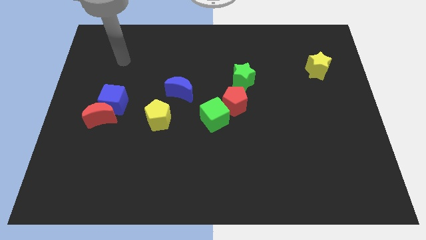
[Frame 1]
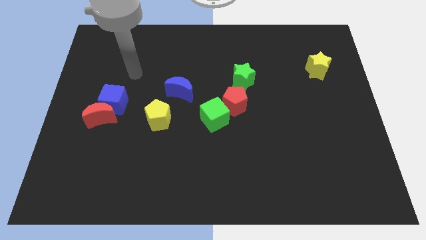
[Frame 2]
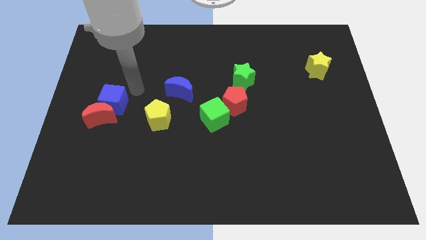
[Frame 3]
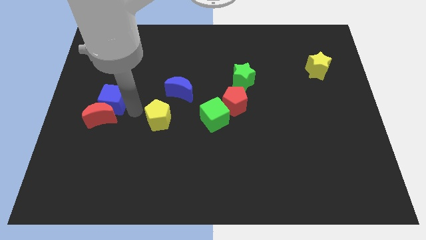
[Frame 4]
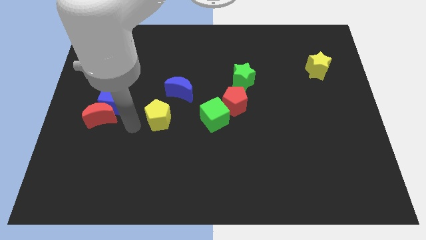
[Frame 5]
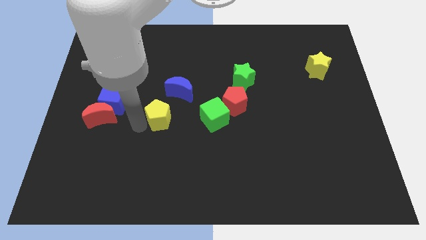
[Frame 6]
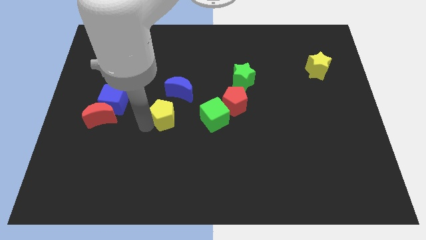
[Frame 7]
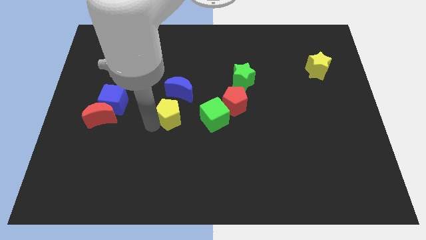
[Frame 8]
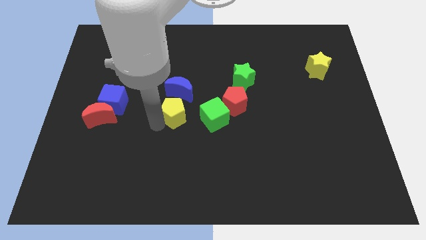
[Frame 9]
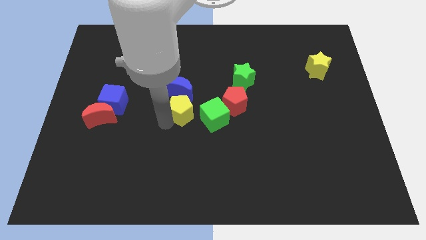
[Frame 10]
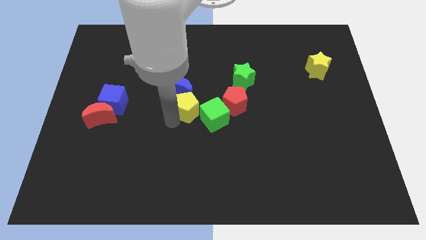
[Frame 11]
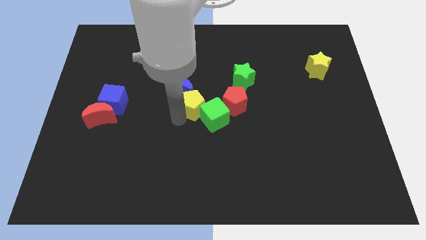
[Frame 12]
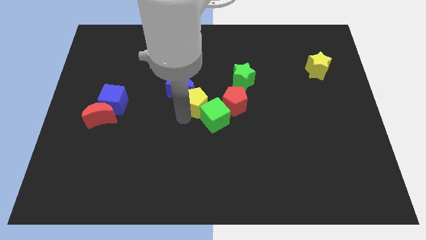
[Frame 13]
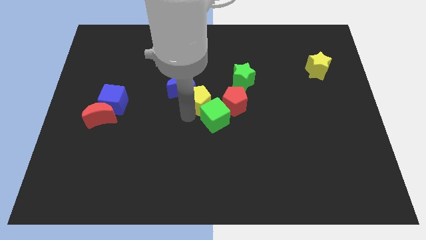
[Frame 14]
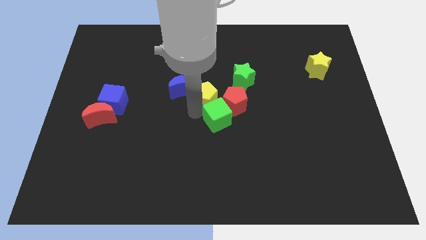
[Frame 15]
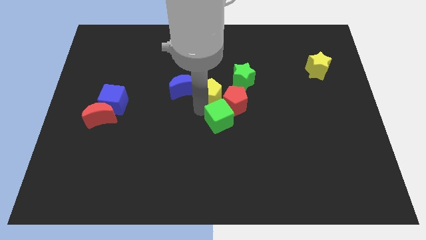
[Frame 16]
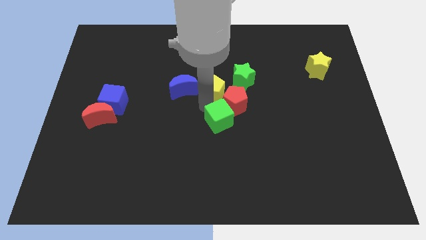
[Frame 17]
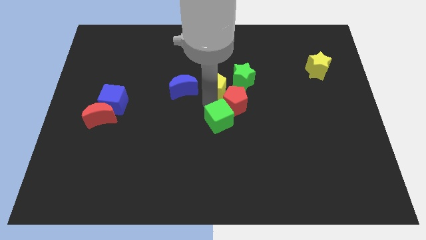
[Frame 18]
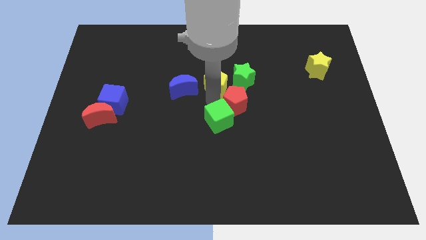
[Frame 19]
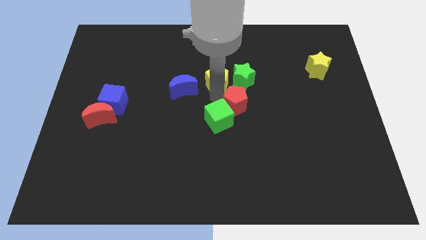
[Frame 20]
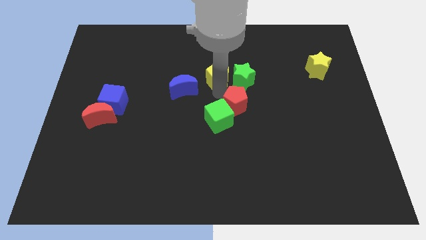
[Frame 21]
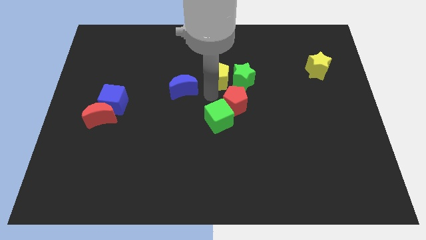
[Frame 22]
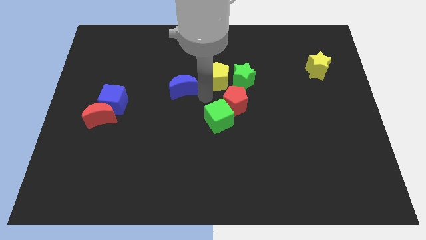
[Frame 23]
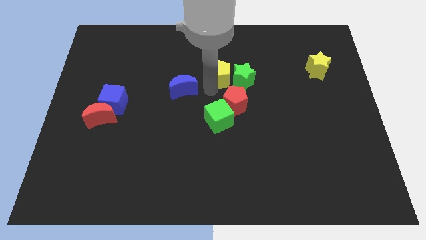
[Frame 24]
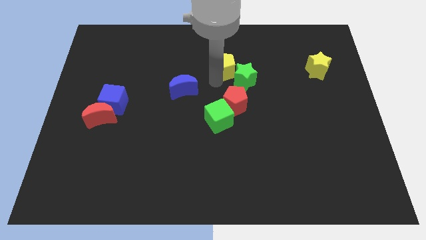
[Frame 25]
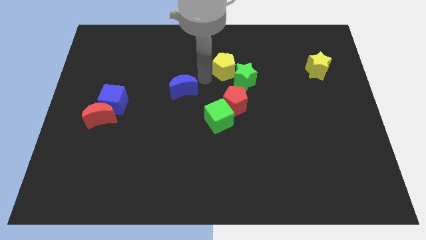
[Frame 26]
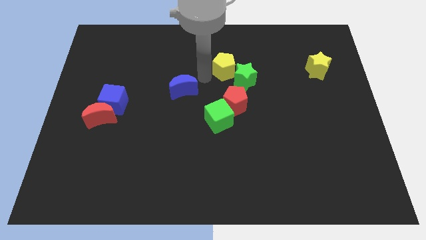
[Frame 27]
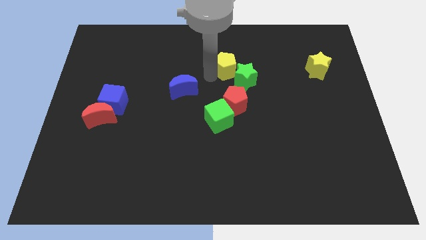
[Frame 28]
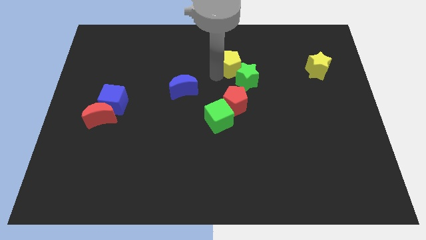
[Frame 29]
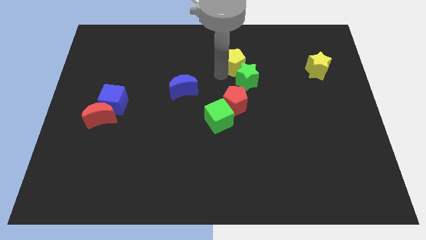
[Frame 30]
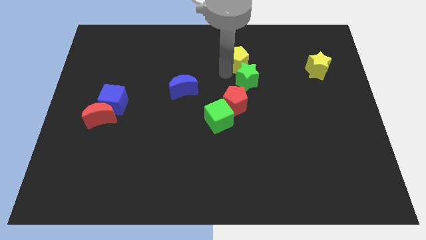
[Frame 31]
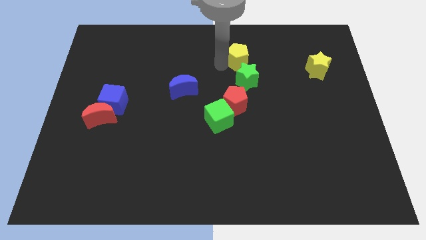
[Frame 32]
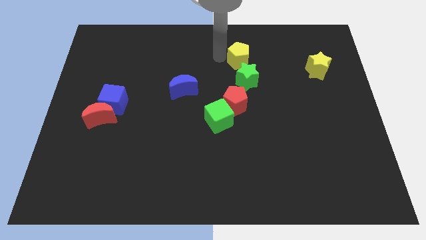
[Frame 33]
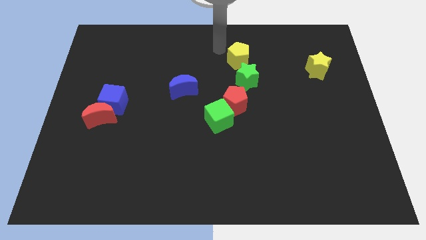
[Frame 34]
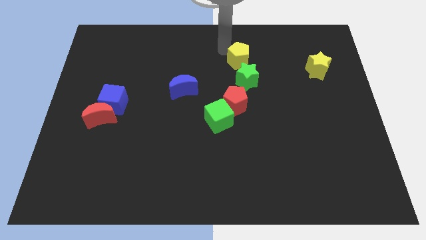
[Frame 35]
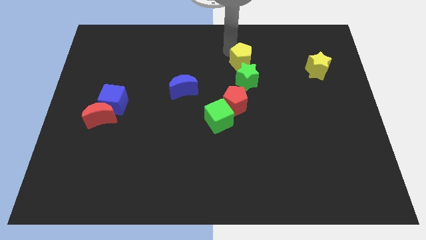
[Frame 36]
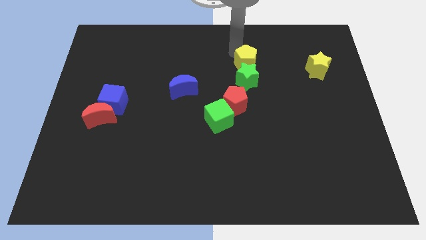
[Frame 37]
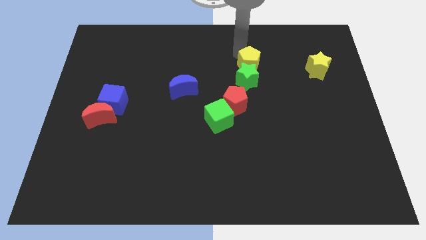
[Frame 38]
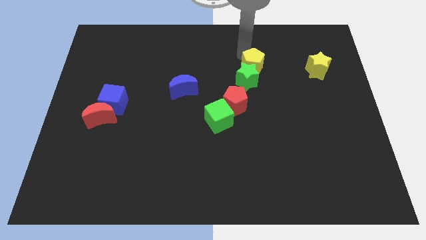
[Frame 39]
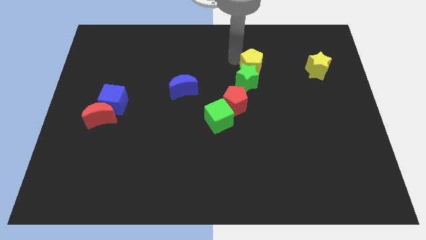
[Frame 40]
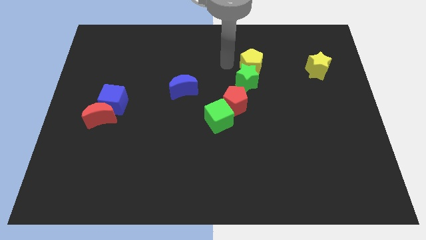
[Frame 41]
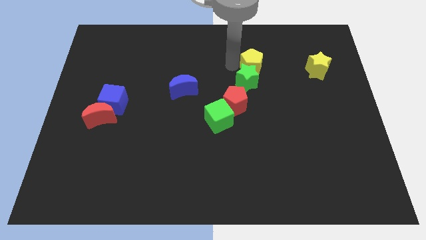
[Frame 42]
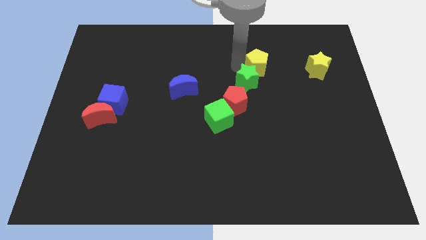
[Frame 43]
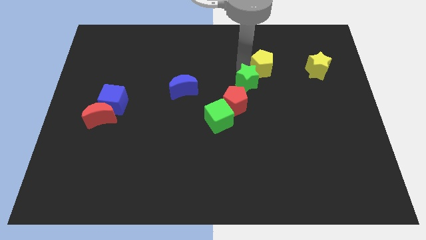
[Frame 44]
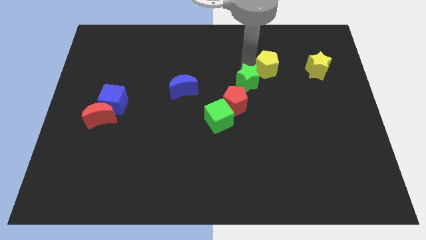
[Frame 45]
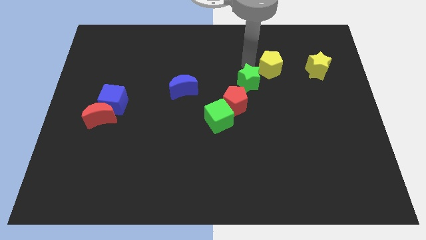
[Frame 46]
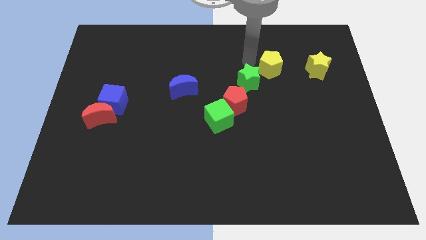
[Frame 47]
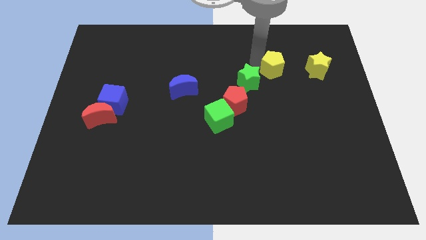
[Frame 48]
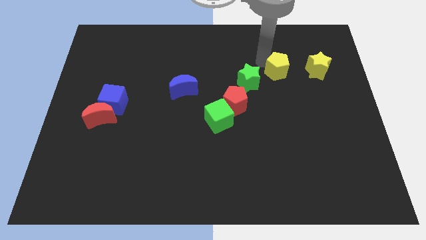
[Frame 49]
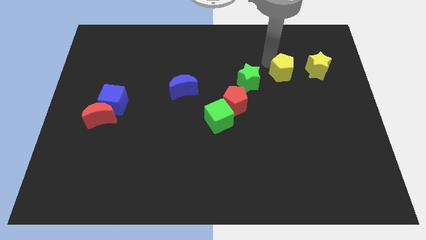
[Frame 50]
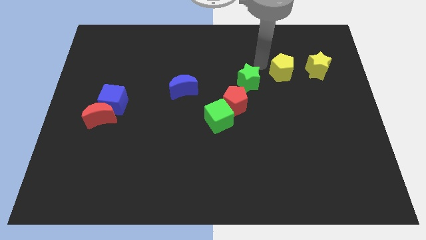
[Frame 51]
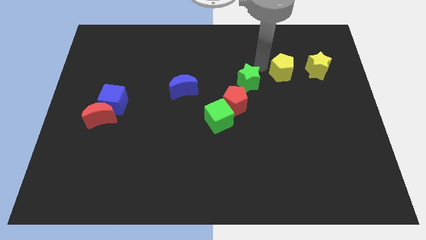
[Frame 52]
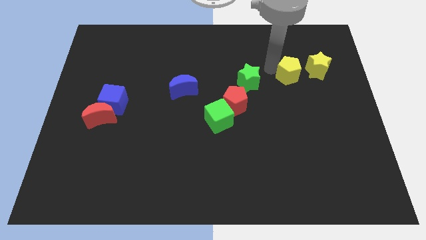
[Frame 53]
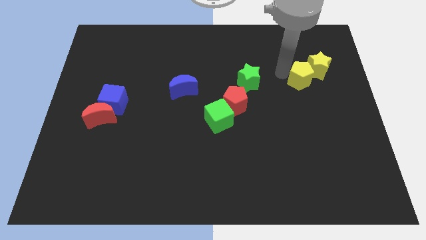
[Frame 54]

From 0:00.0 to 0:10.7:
move the yellow pentagon to the yellow star

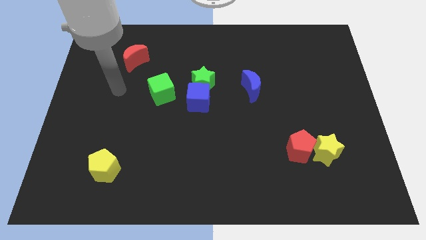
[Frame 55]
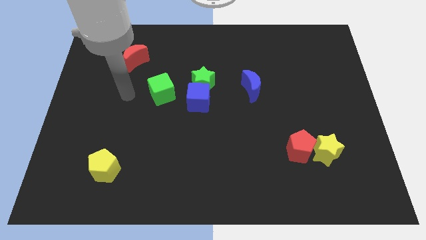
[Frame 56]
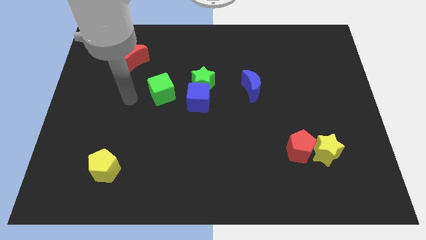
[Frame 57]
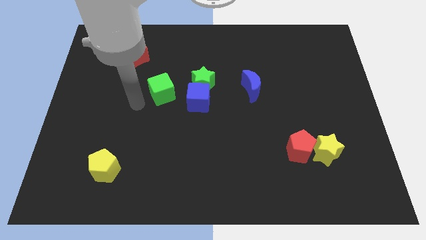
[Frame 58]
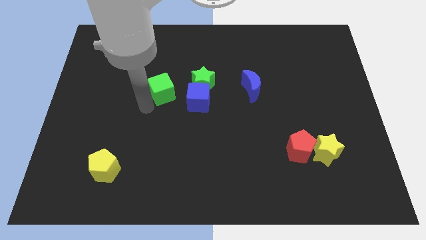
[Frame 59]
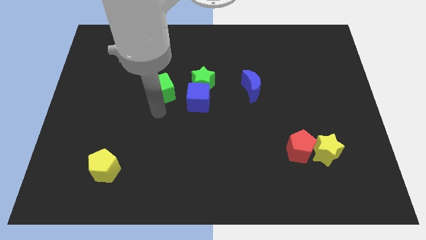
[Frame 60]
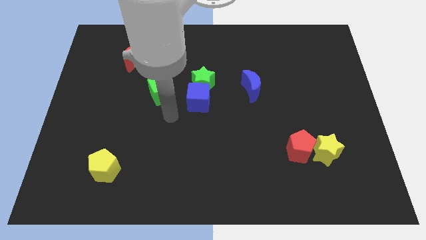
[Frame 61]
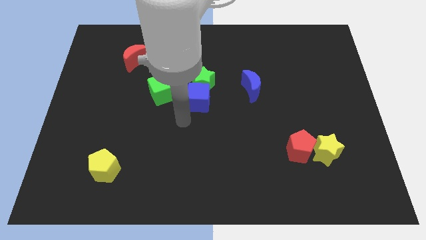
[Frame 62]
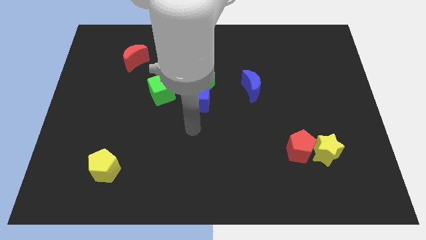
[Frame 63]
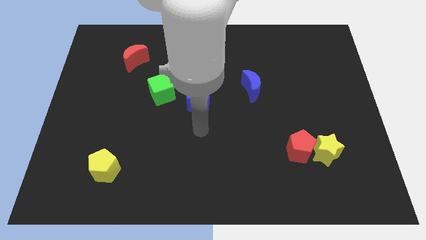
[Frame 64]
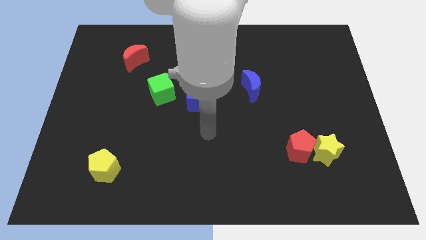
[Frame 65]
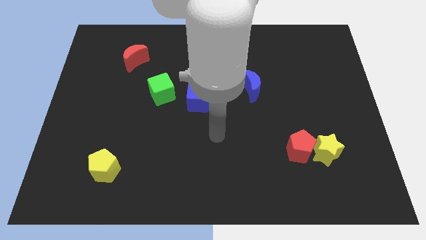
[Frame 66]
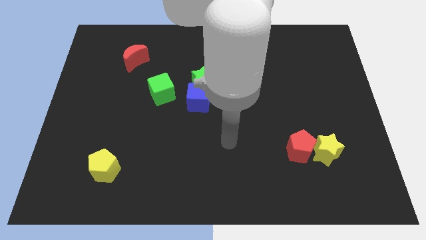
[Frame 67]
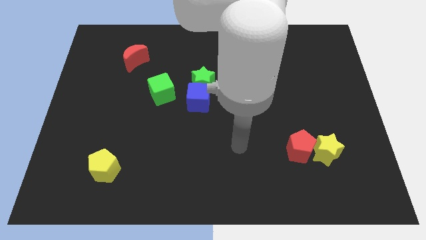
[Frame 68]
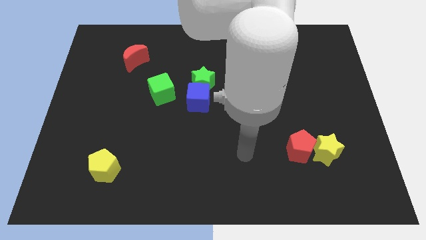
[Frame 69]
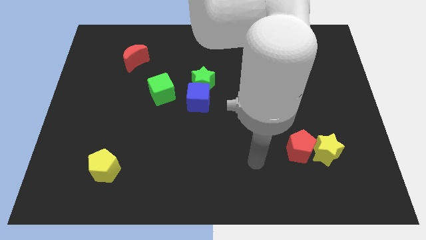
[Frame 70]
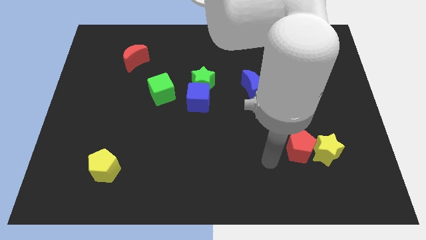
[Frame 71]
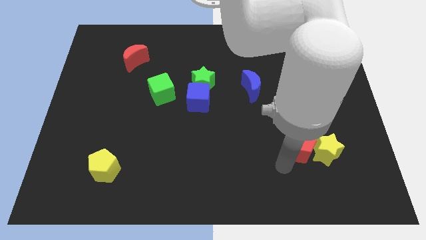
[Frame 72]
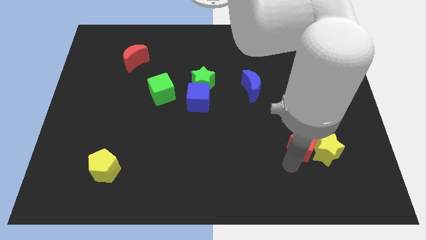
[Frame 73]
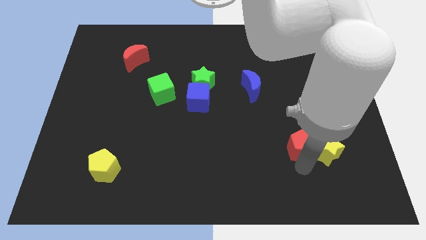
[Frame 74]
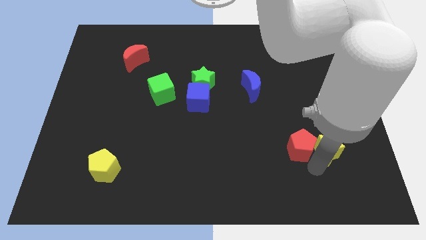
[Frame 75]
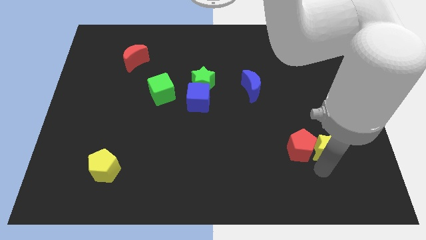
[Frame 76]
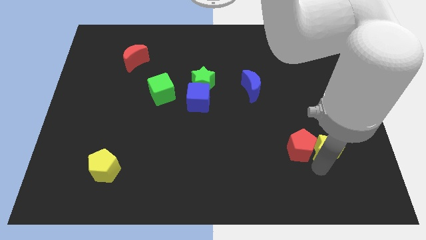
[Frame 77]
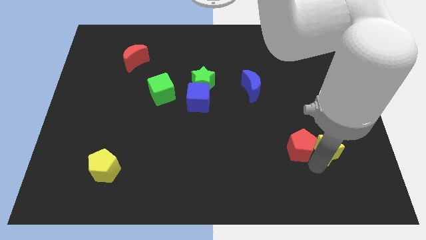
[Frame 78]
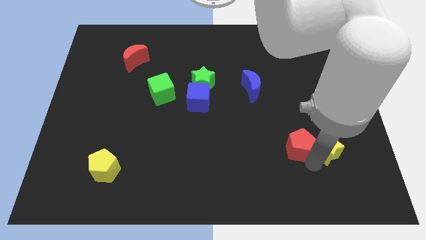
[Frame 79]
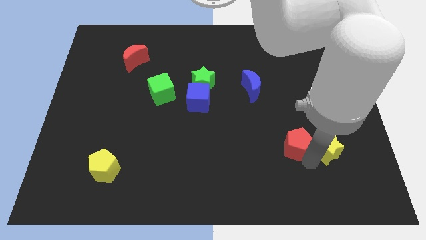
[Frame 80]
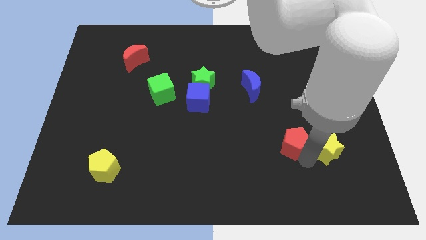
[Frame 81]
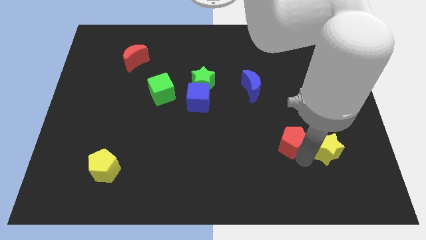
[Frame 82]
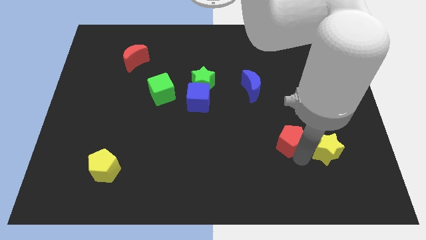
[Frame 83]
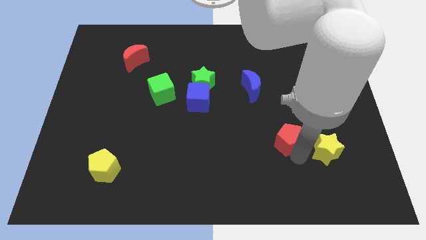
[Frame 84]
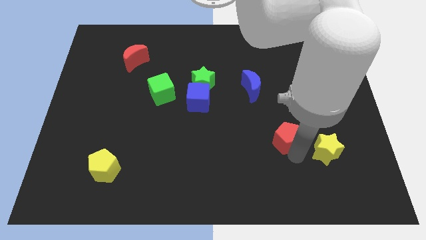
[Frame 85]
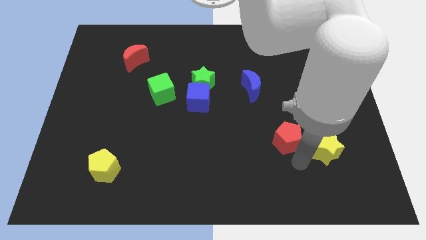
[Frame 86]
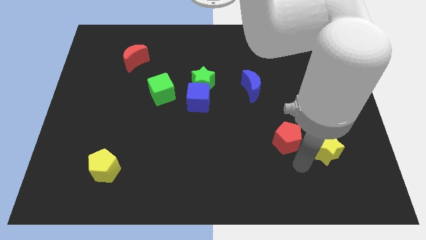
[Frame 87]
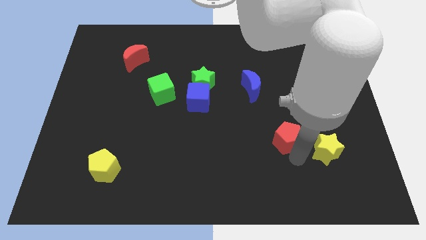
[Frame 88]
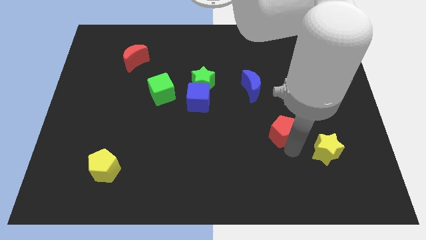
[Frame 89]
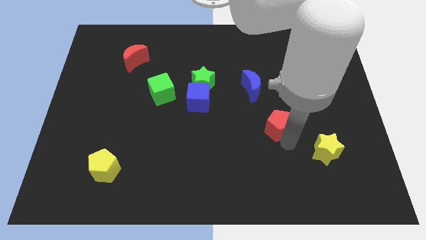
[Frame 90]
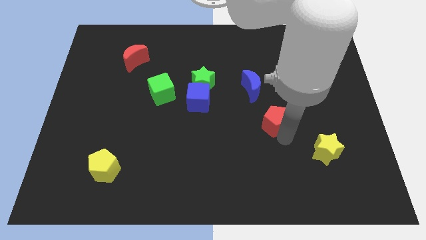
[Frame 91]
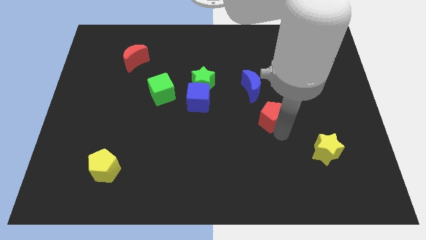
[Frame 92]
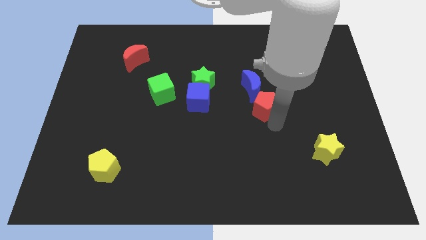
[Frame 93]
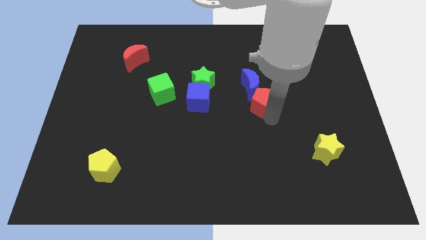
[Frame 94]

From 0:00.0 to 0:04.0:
push the red pentagon next to the blue moon
